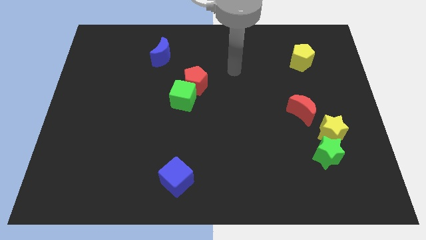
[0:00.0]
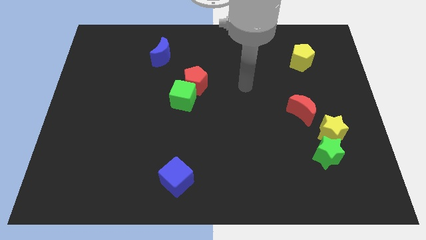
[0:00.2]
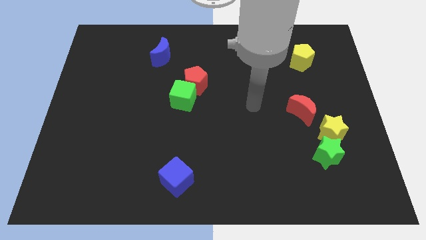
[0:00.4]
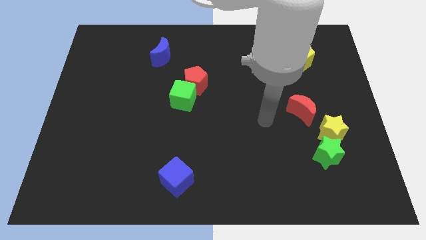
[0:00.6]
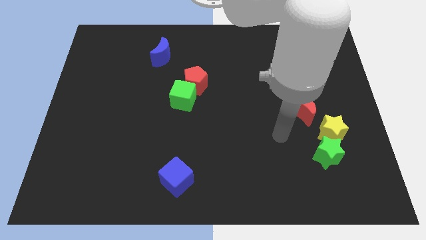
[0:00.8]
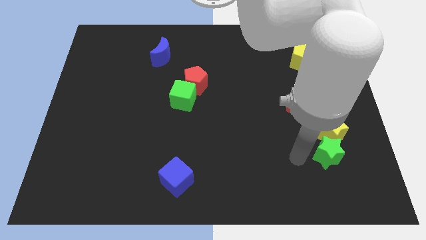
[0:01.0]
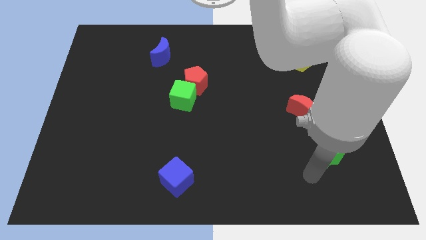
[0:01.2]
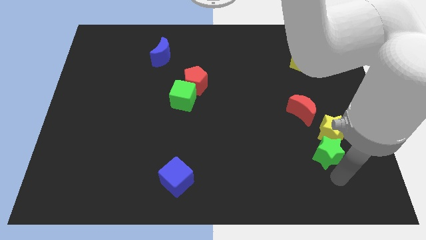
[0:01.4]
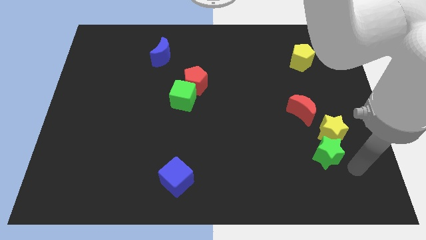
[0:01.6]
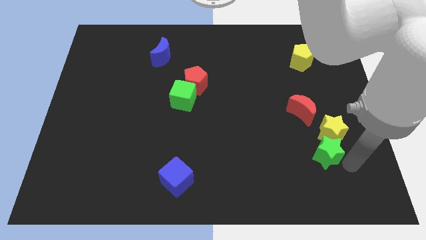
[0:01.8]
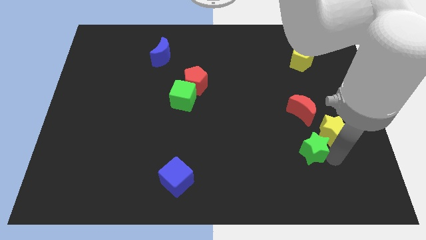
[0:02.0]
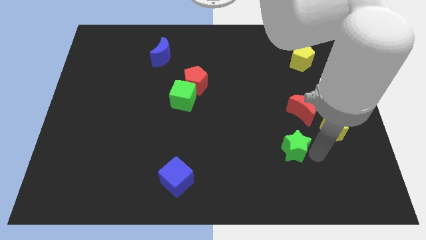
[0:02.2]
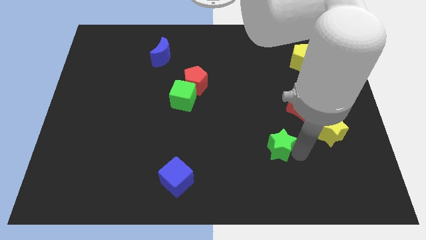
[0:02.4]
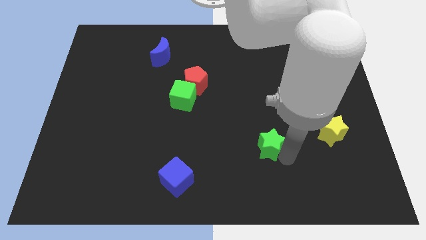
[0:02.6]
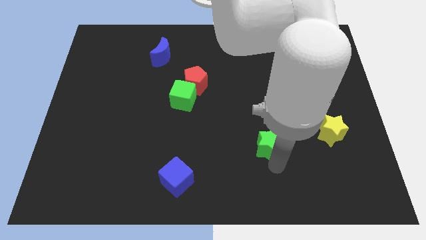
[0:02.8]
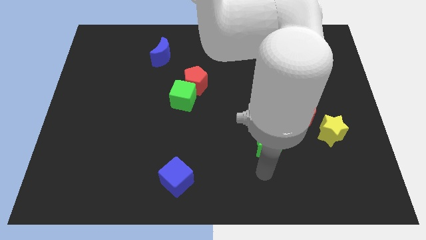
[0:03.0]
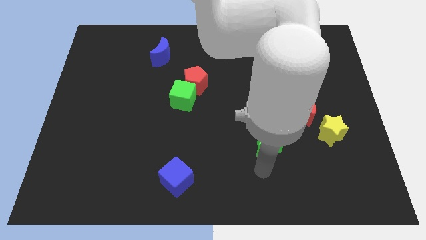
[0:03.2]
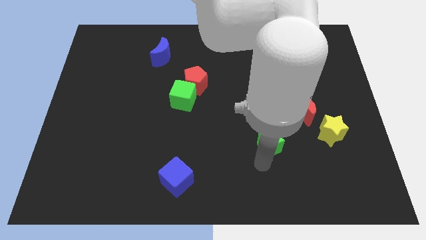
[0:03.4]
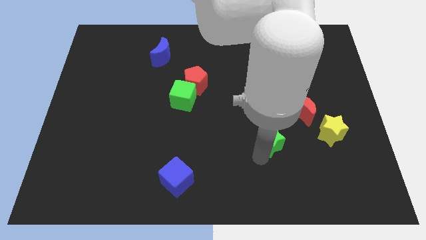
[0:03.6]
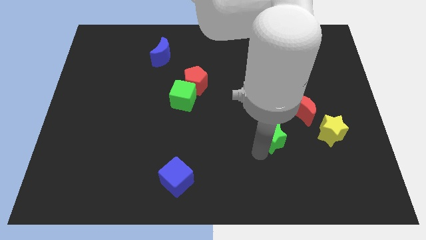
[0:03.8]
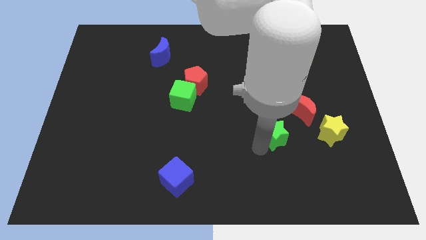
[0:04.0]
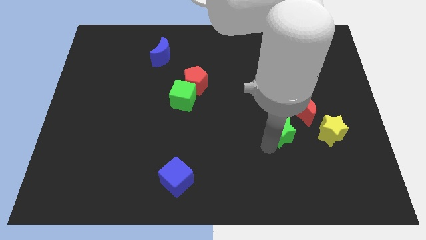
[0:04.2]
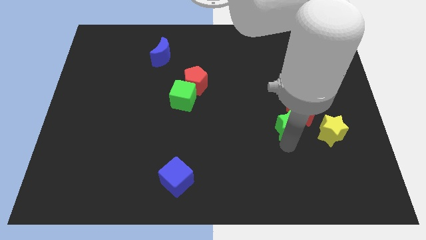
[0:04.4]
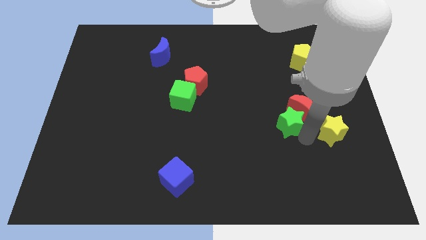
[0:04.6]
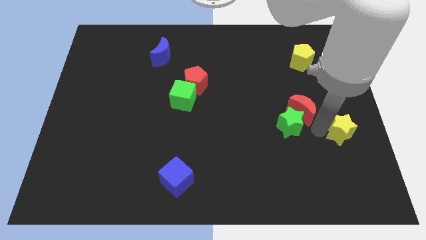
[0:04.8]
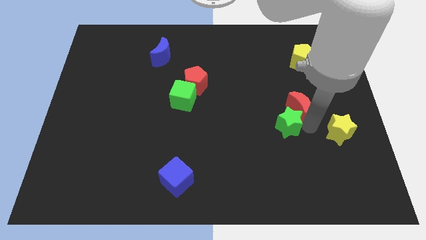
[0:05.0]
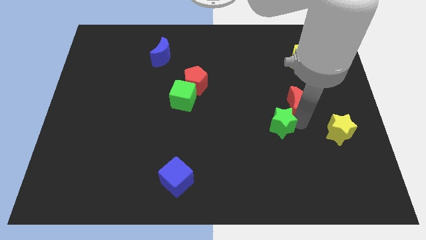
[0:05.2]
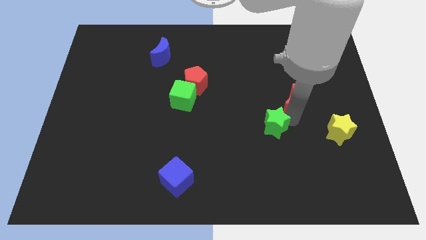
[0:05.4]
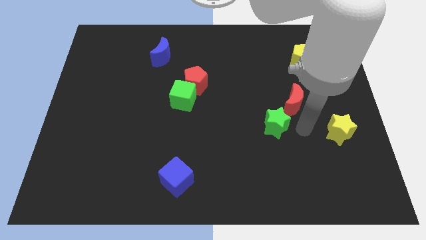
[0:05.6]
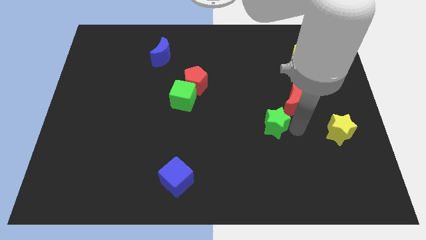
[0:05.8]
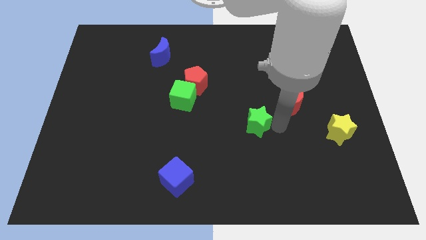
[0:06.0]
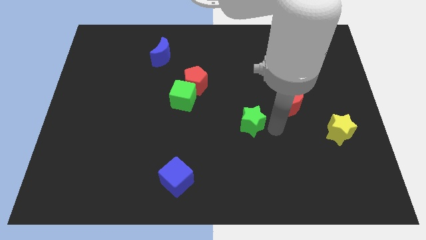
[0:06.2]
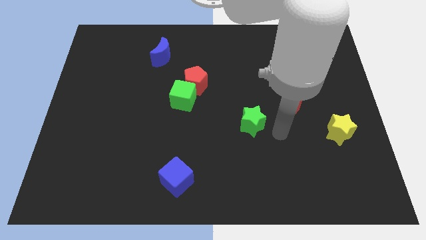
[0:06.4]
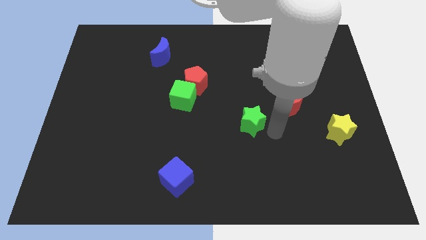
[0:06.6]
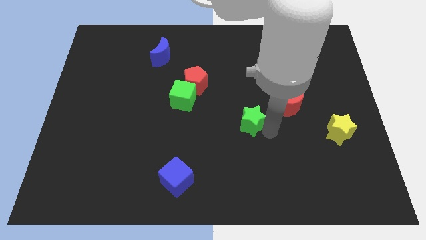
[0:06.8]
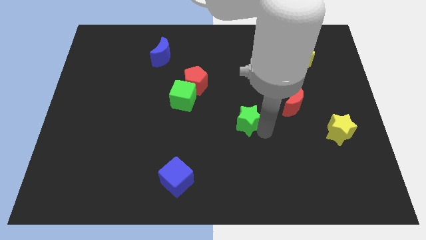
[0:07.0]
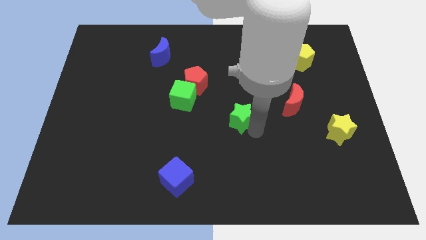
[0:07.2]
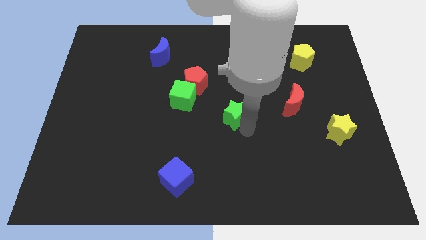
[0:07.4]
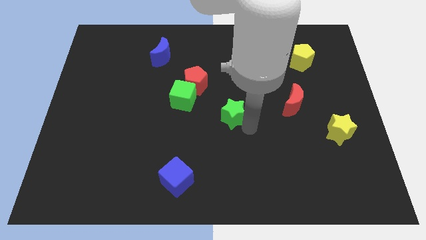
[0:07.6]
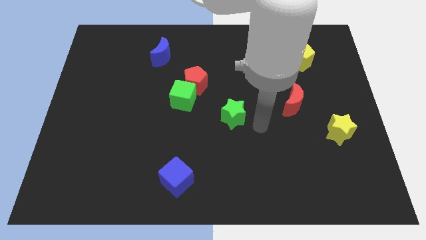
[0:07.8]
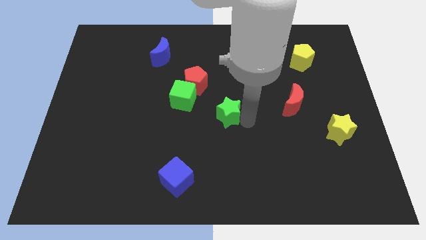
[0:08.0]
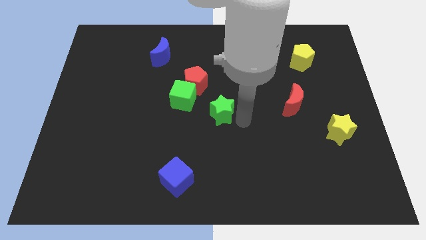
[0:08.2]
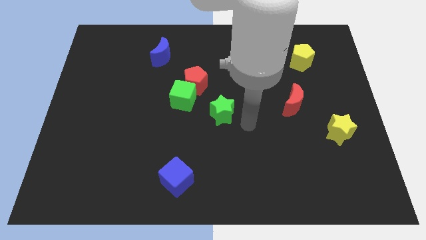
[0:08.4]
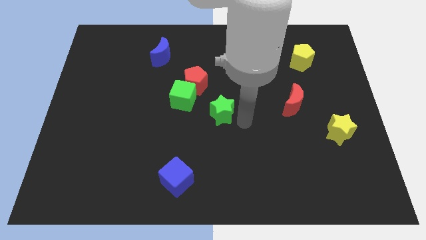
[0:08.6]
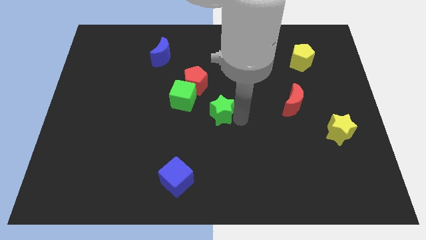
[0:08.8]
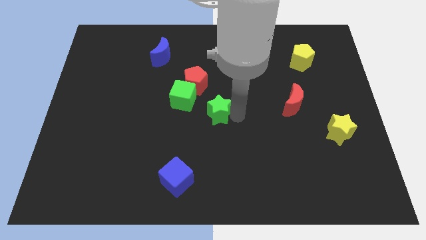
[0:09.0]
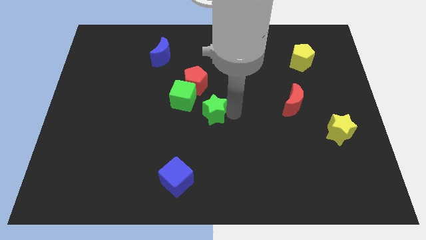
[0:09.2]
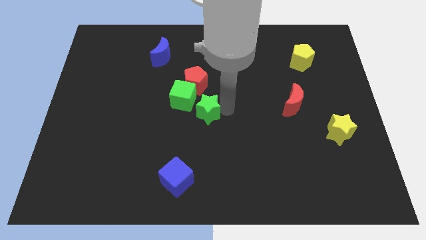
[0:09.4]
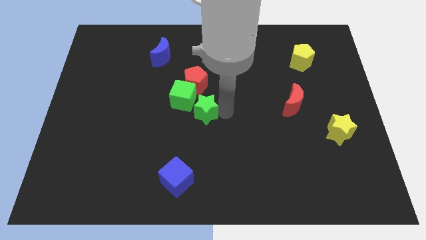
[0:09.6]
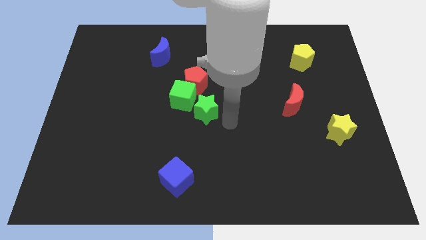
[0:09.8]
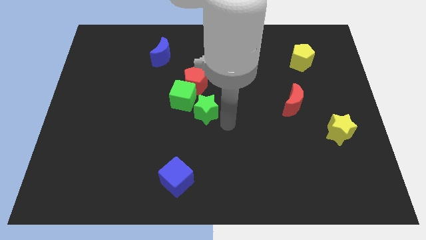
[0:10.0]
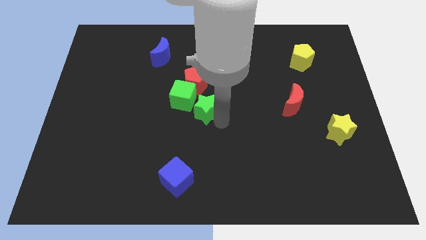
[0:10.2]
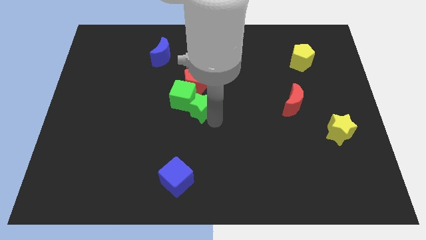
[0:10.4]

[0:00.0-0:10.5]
slide the green star to the green cube

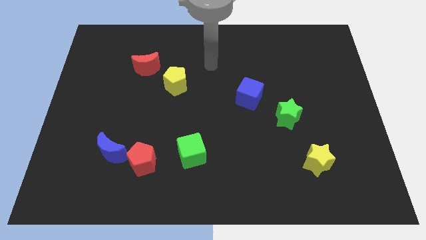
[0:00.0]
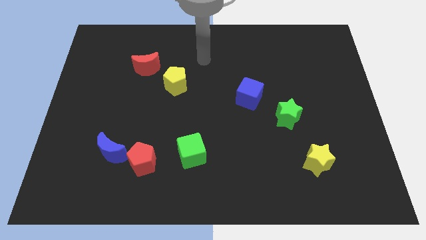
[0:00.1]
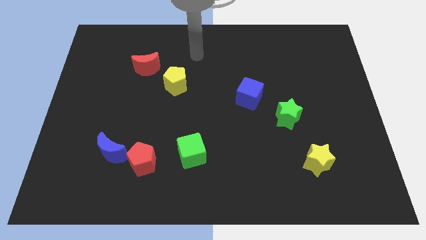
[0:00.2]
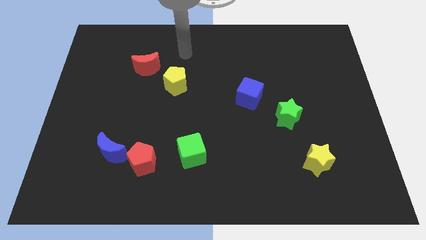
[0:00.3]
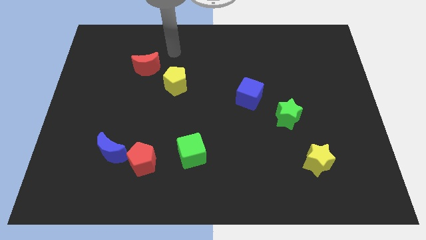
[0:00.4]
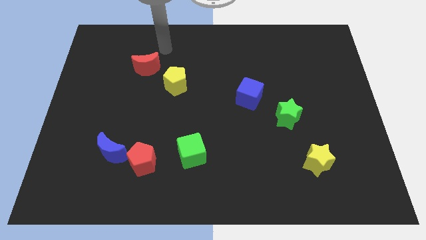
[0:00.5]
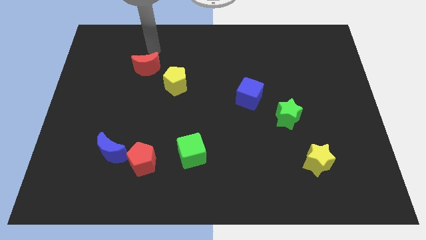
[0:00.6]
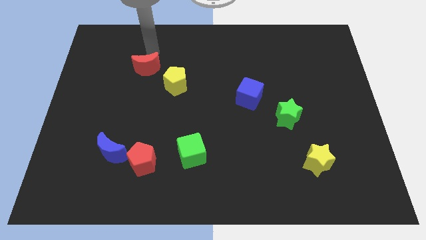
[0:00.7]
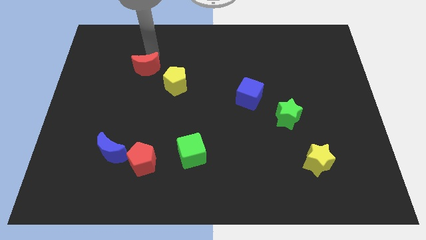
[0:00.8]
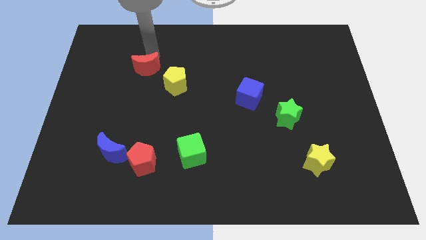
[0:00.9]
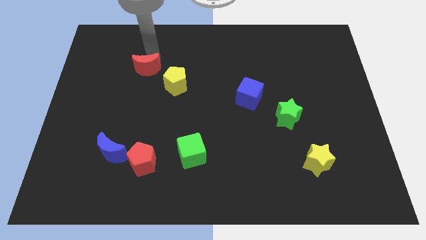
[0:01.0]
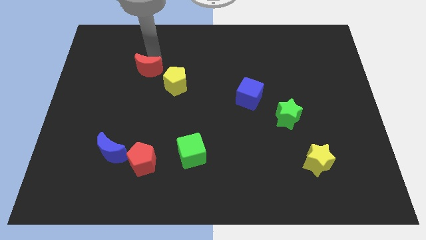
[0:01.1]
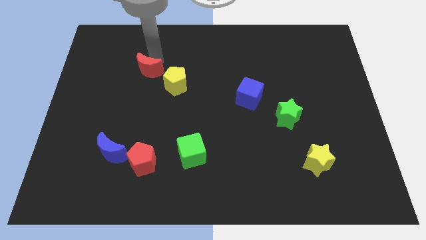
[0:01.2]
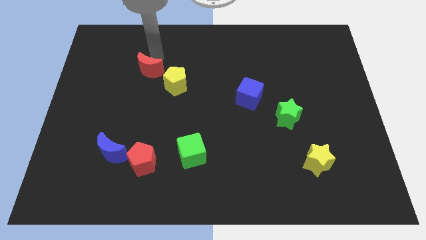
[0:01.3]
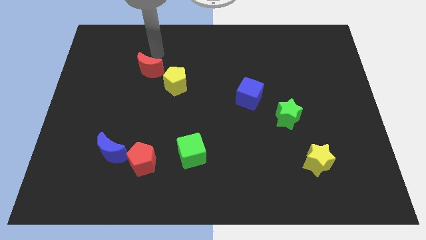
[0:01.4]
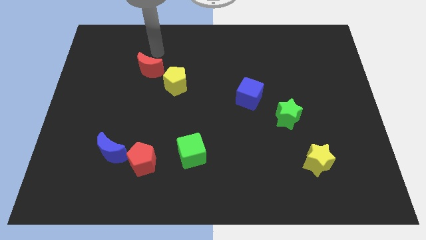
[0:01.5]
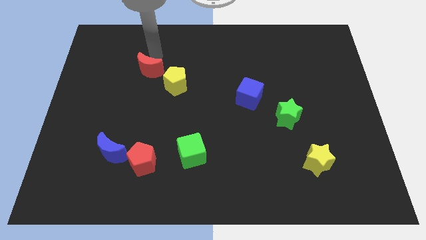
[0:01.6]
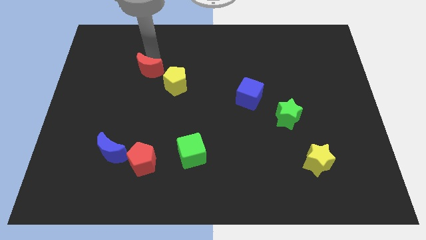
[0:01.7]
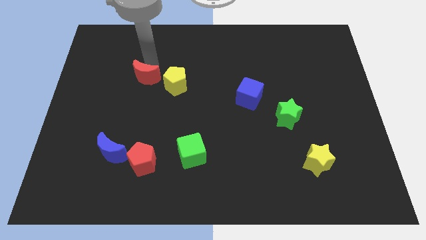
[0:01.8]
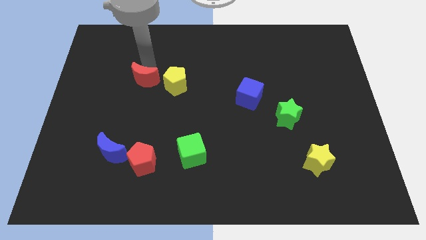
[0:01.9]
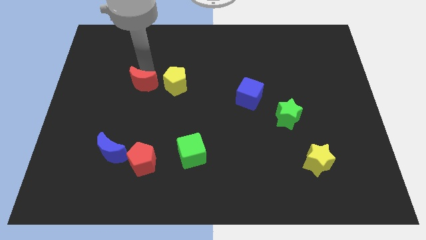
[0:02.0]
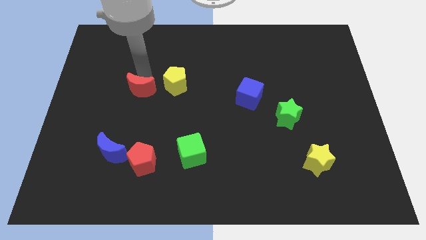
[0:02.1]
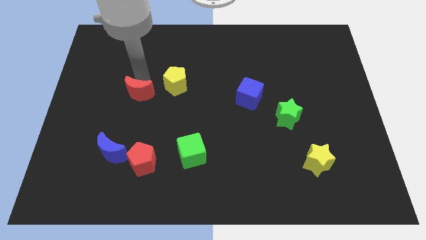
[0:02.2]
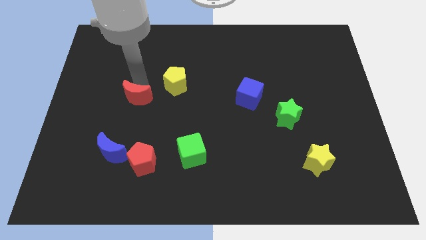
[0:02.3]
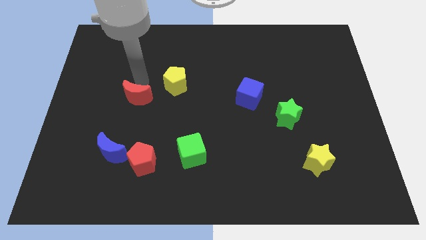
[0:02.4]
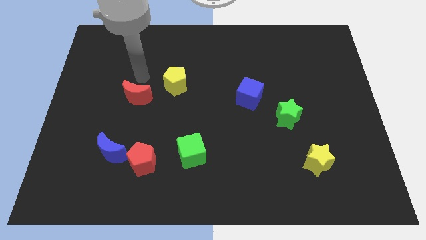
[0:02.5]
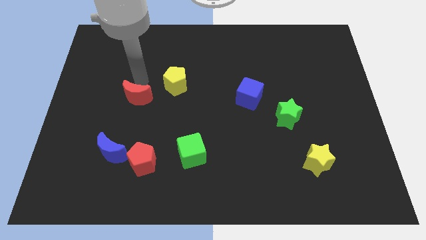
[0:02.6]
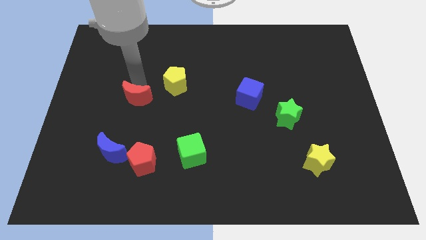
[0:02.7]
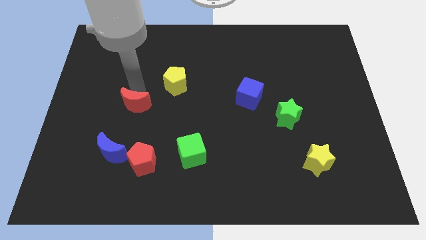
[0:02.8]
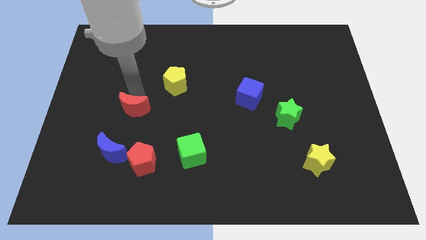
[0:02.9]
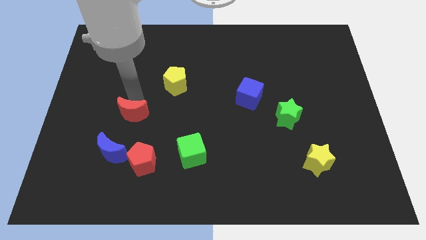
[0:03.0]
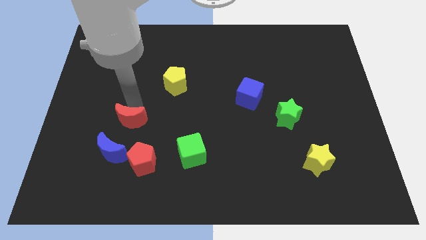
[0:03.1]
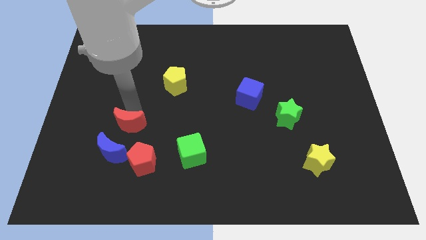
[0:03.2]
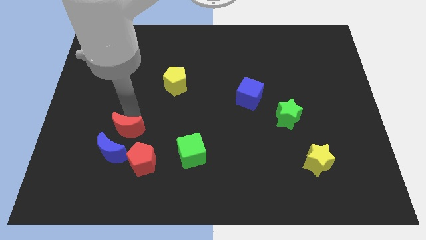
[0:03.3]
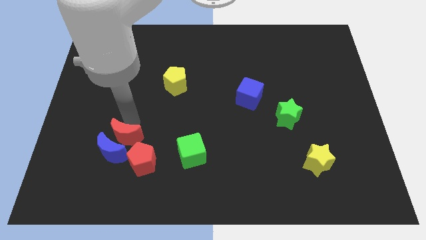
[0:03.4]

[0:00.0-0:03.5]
push the red moon close to the blue moon
